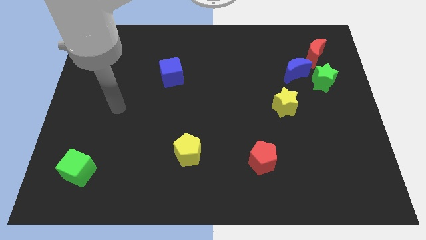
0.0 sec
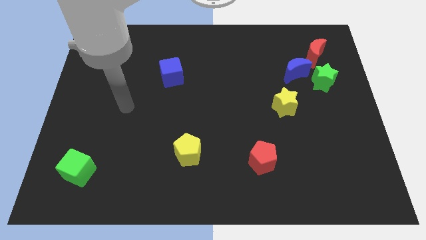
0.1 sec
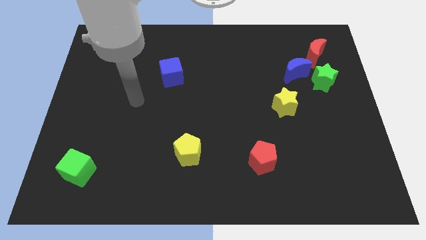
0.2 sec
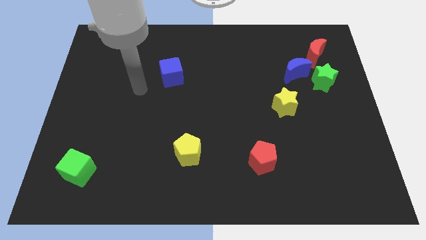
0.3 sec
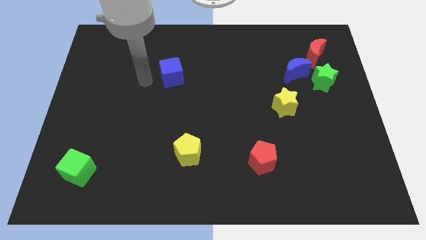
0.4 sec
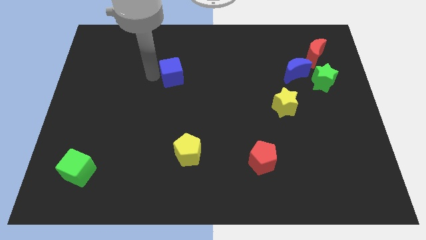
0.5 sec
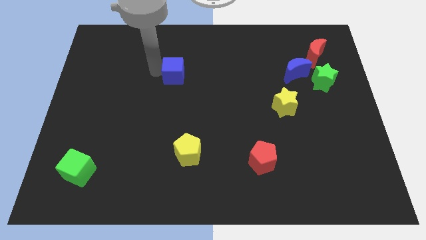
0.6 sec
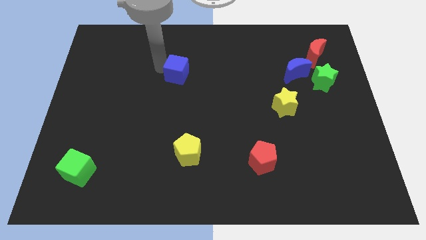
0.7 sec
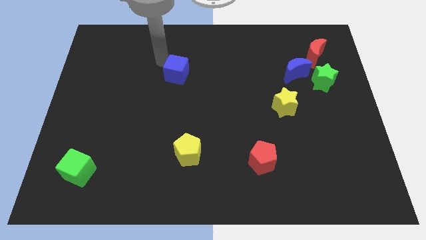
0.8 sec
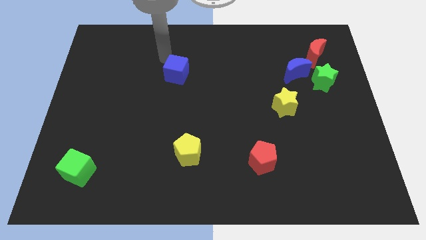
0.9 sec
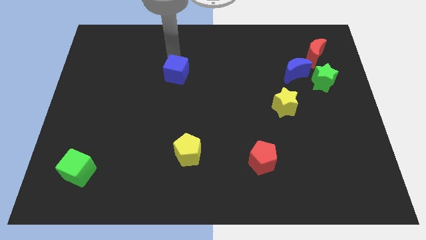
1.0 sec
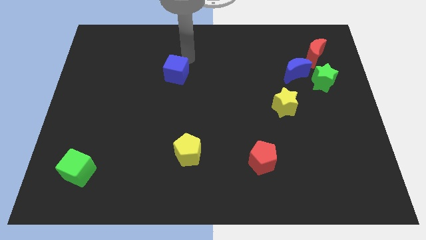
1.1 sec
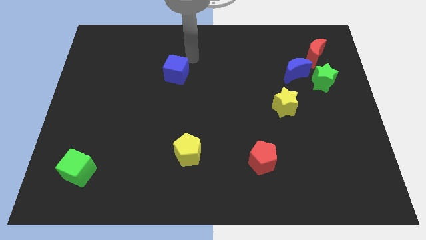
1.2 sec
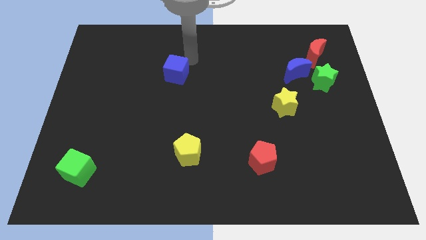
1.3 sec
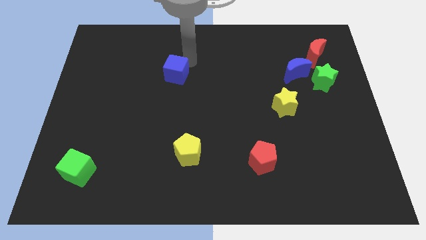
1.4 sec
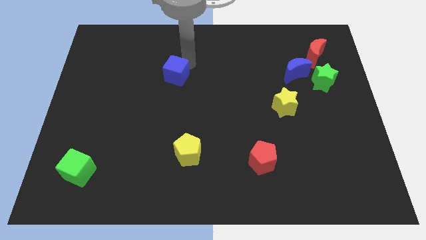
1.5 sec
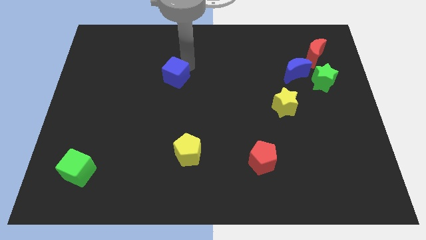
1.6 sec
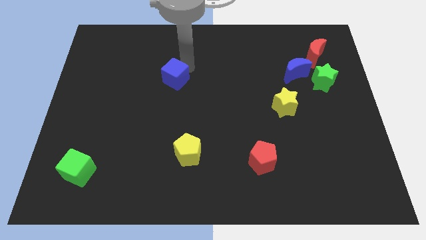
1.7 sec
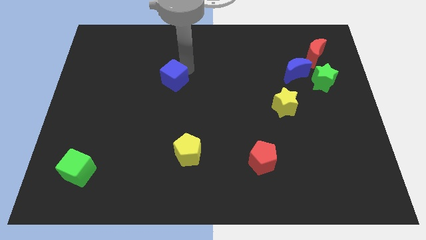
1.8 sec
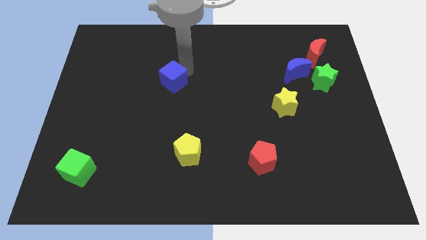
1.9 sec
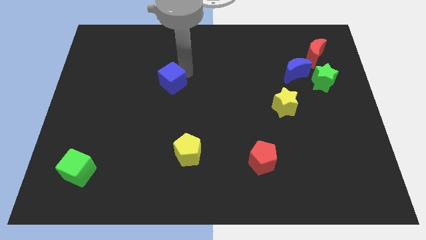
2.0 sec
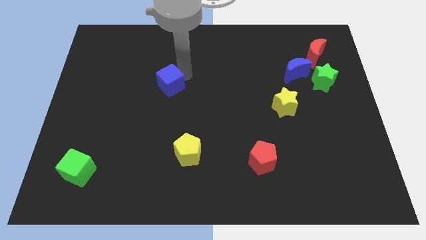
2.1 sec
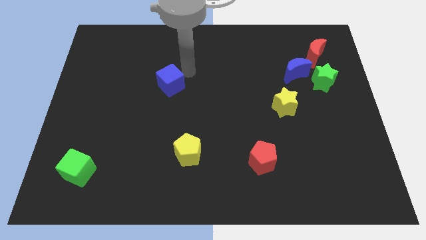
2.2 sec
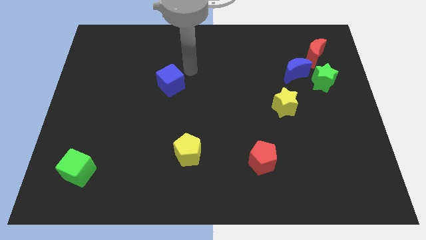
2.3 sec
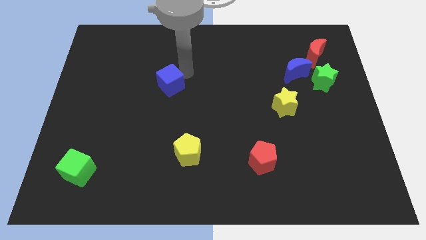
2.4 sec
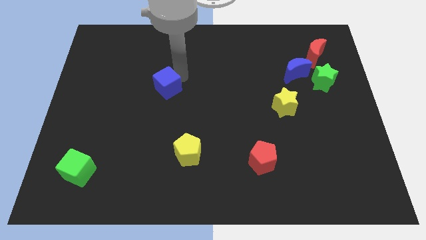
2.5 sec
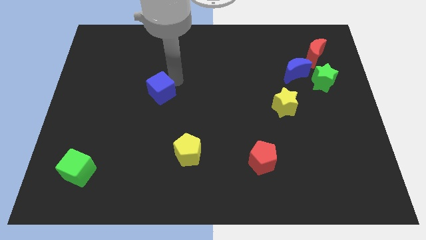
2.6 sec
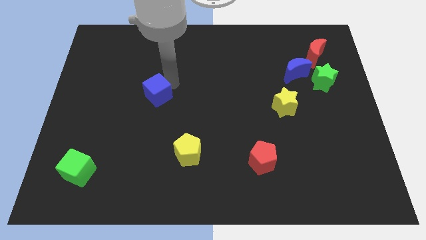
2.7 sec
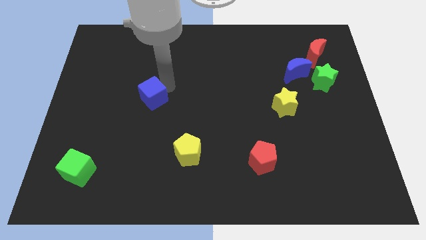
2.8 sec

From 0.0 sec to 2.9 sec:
slightly push the blue cube downwards and to the left diagonally

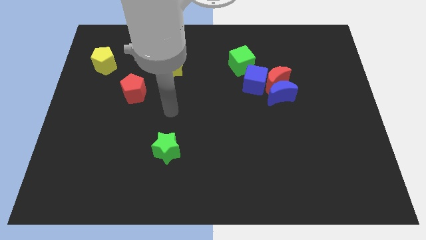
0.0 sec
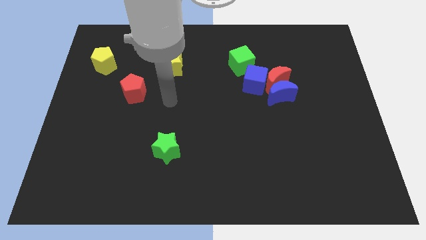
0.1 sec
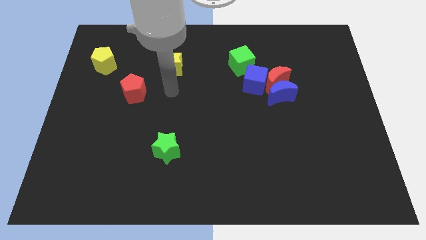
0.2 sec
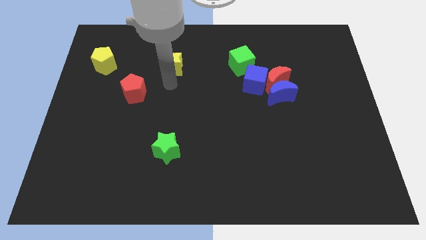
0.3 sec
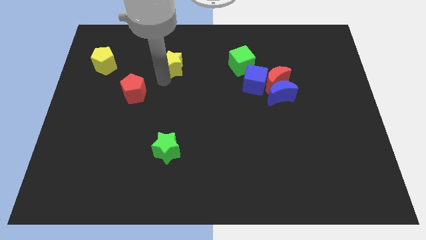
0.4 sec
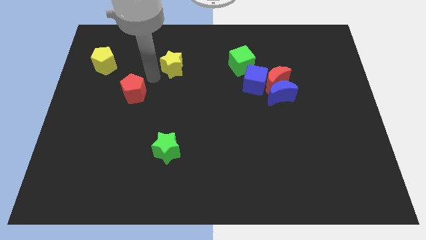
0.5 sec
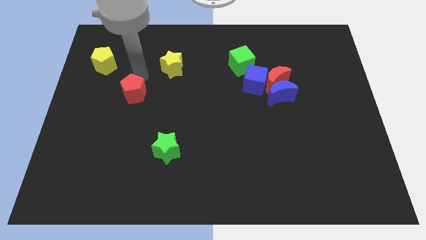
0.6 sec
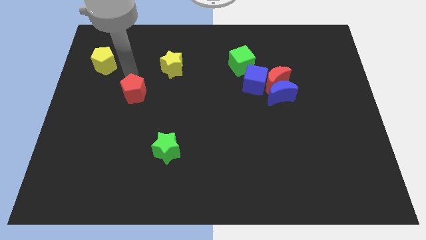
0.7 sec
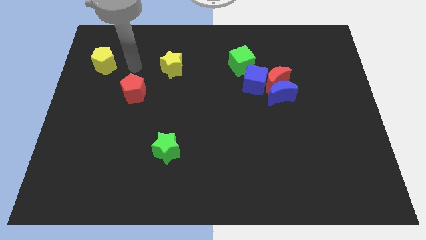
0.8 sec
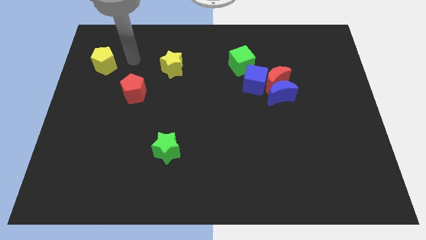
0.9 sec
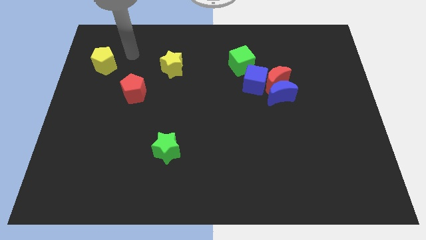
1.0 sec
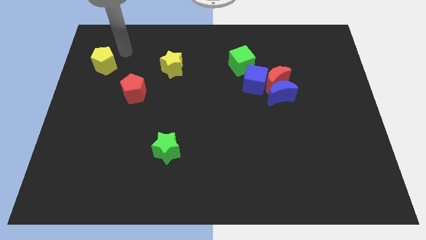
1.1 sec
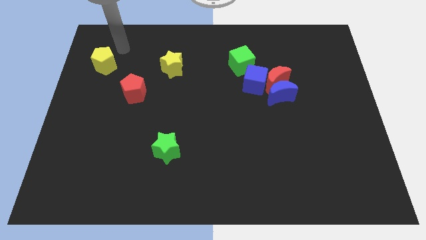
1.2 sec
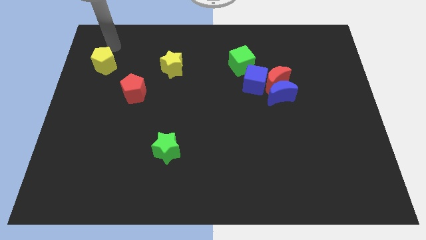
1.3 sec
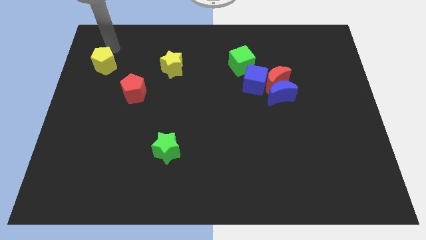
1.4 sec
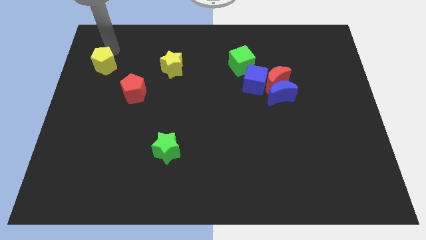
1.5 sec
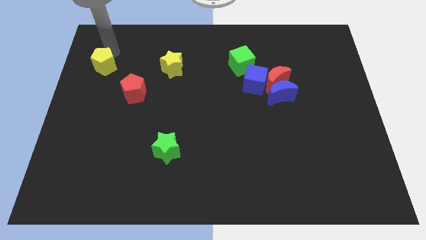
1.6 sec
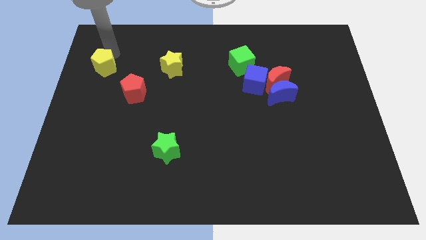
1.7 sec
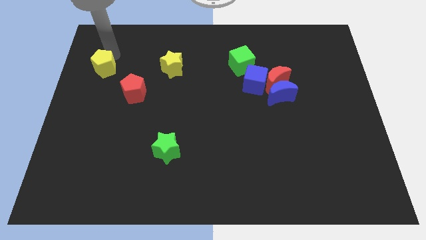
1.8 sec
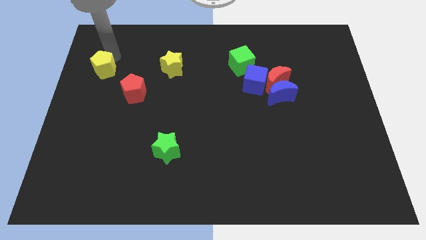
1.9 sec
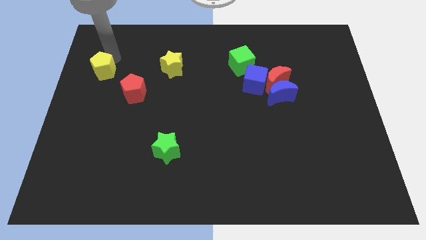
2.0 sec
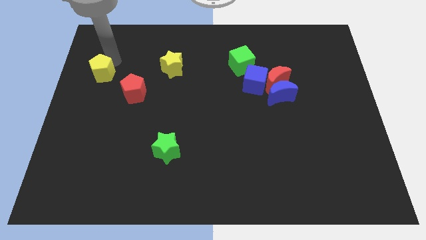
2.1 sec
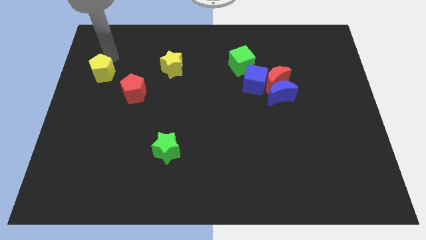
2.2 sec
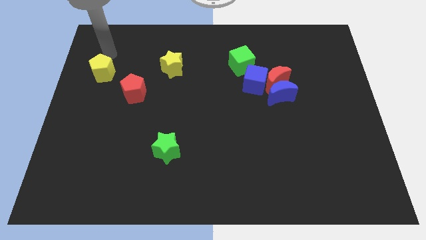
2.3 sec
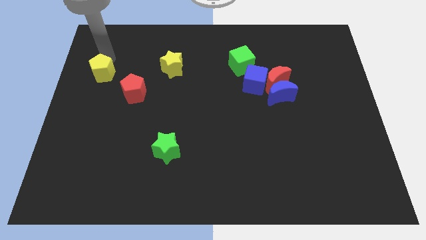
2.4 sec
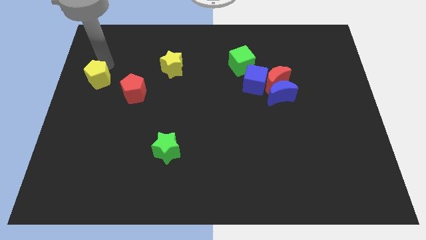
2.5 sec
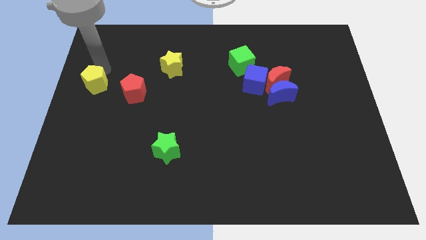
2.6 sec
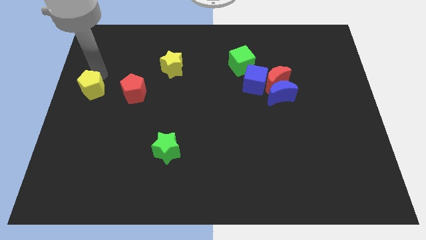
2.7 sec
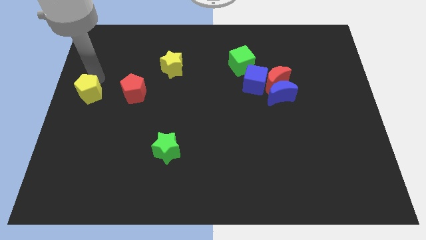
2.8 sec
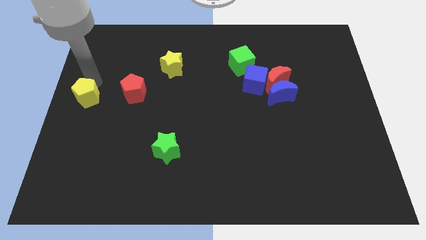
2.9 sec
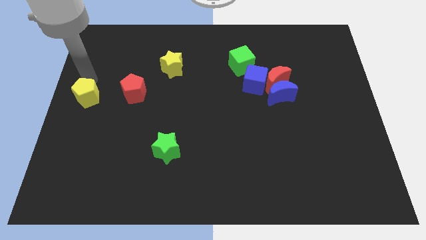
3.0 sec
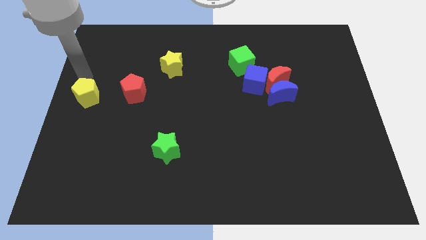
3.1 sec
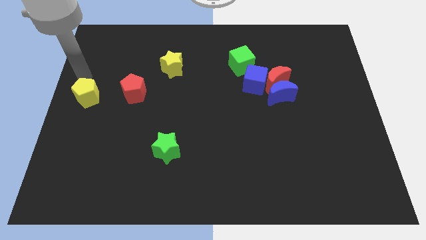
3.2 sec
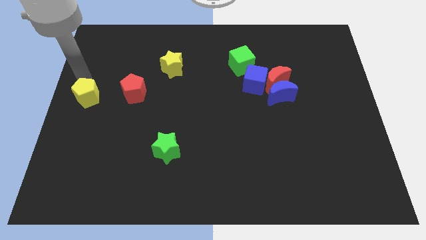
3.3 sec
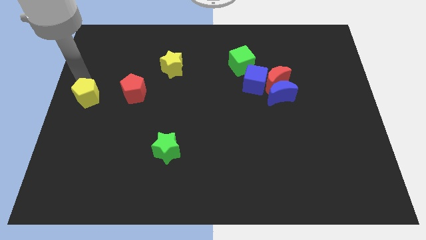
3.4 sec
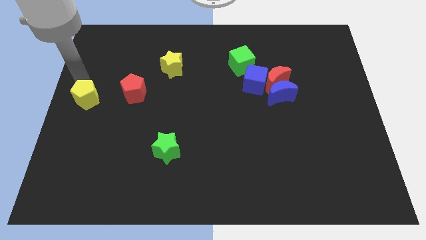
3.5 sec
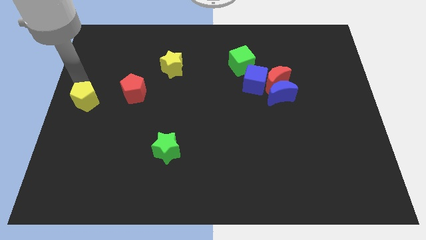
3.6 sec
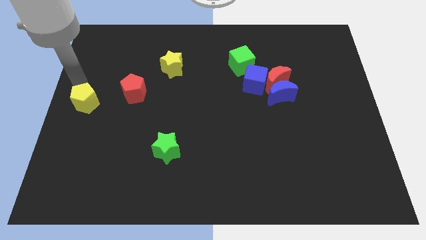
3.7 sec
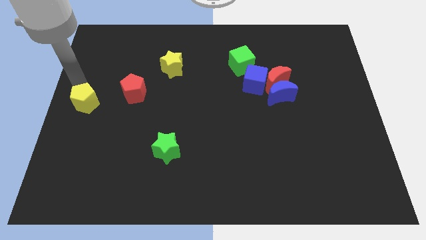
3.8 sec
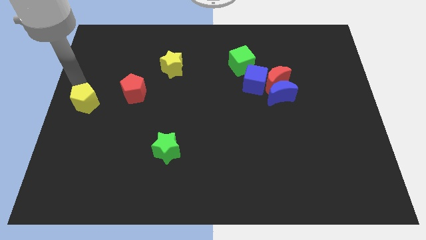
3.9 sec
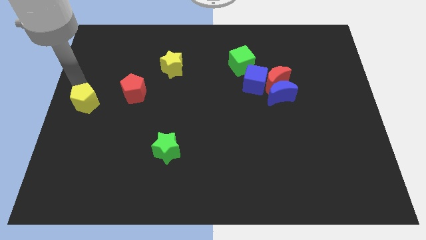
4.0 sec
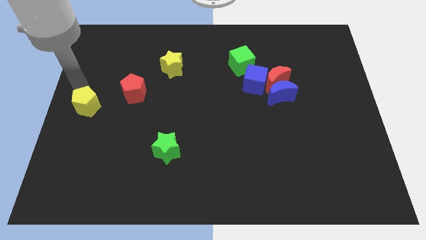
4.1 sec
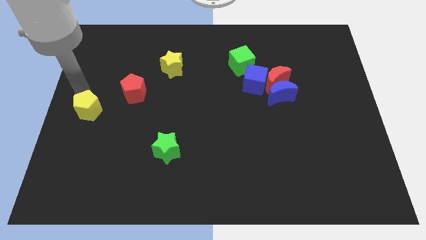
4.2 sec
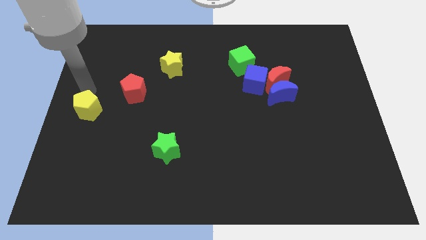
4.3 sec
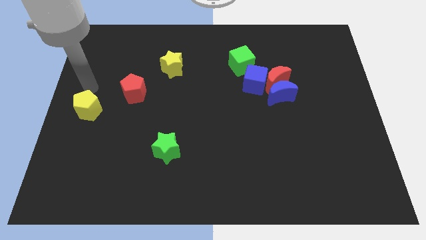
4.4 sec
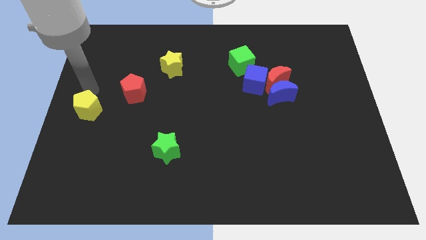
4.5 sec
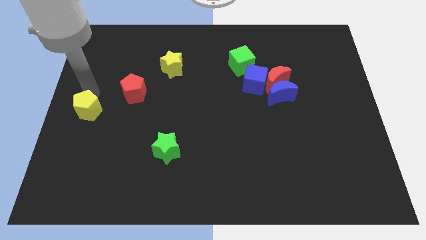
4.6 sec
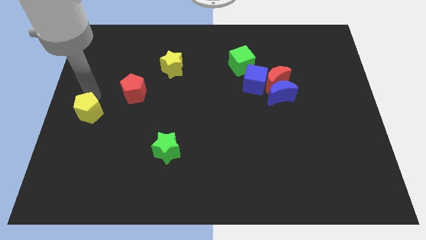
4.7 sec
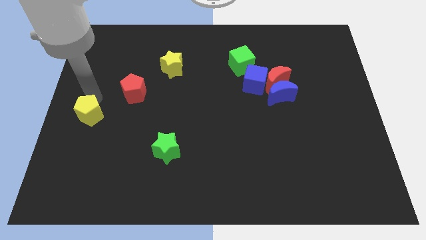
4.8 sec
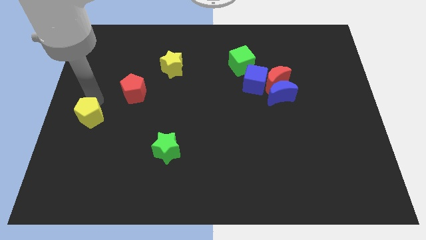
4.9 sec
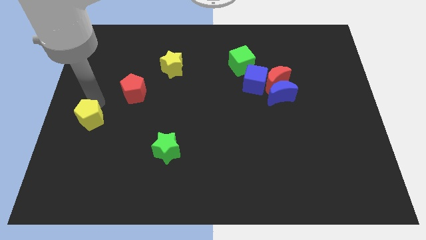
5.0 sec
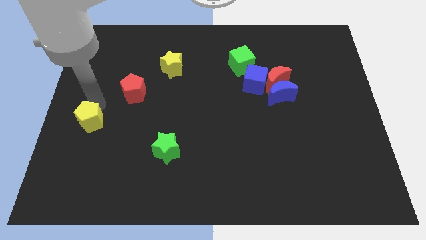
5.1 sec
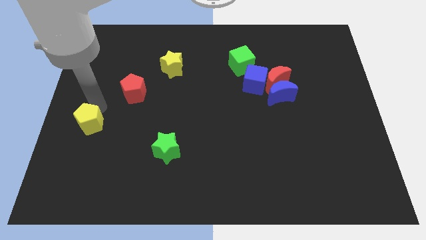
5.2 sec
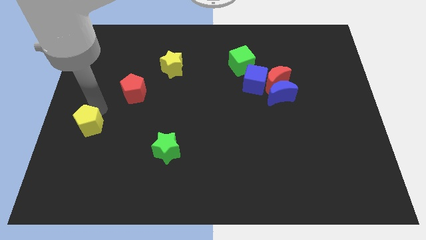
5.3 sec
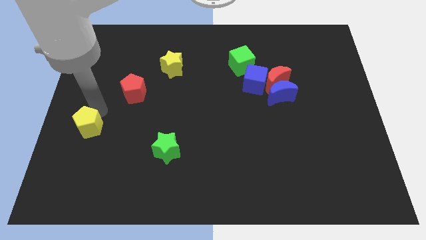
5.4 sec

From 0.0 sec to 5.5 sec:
move the yellow pentagon down

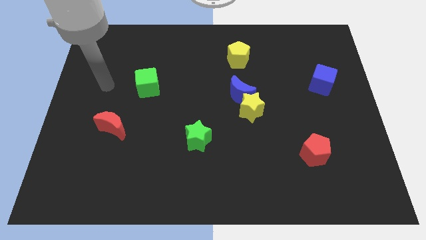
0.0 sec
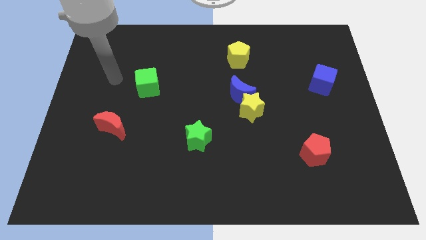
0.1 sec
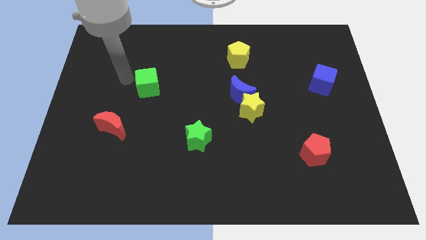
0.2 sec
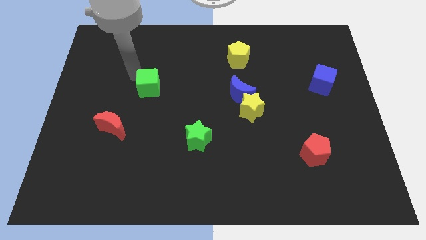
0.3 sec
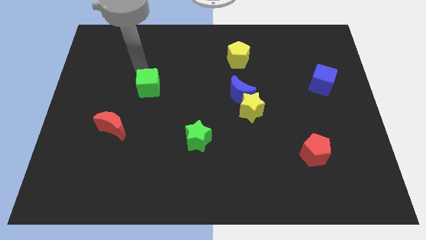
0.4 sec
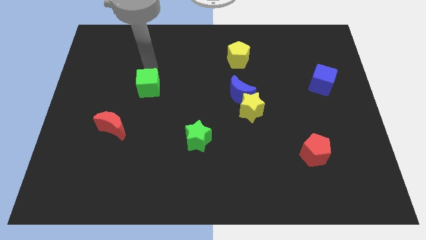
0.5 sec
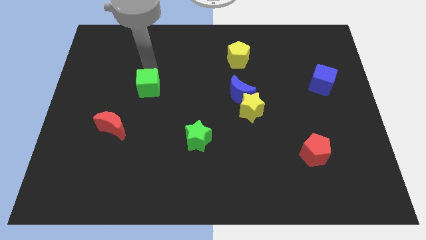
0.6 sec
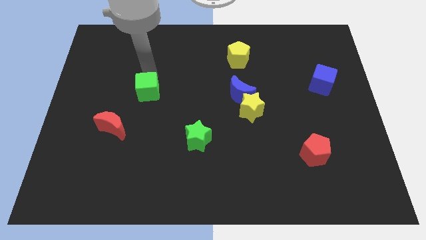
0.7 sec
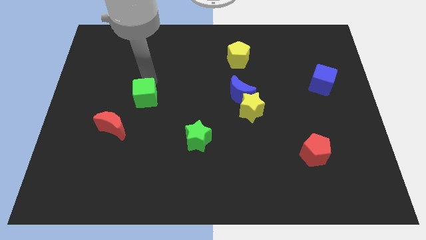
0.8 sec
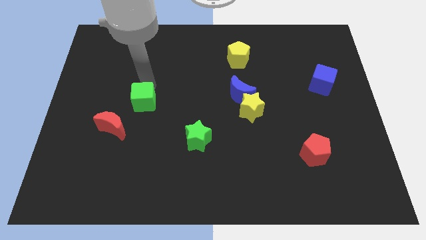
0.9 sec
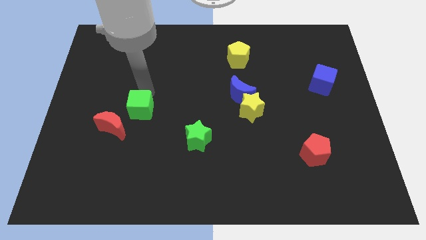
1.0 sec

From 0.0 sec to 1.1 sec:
move the green cube a bit down
